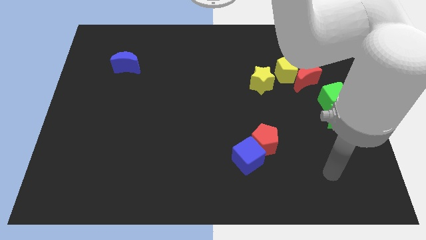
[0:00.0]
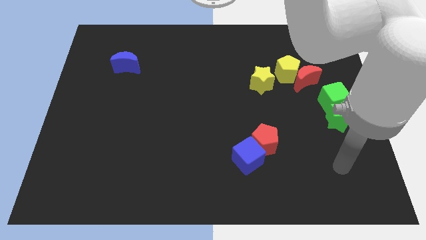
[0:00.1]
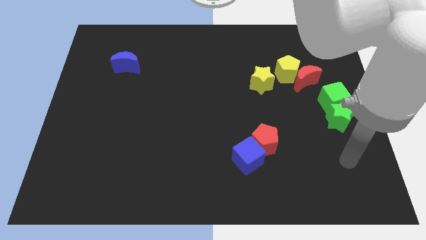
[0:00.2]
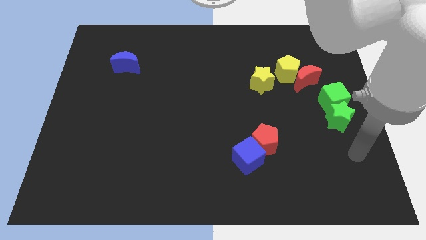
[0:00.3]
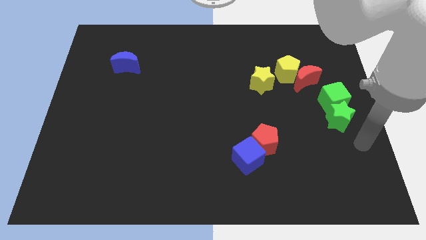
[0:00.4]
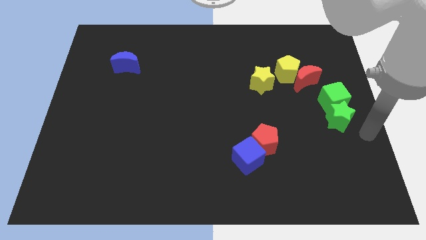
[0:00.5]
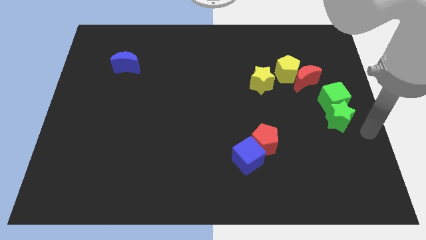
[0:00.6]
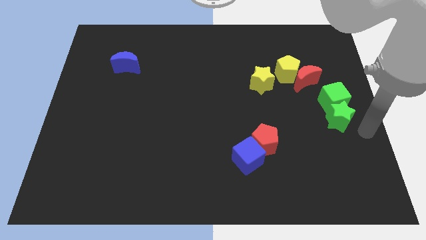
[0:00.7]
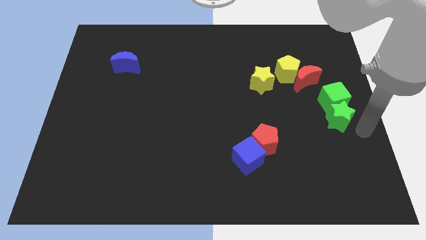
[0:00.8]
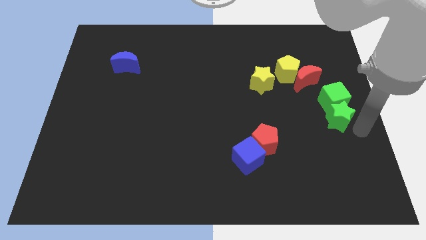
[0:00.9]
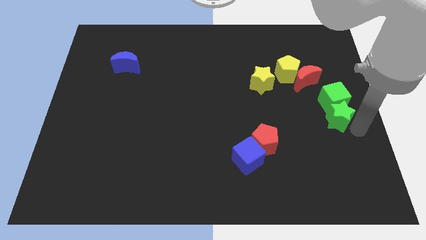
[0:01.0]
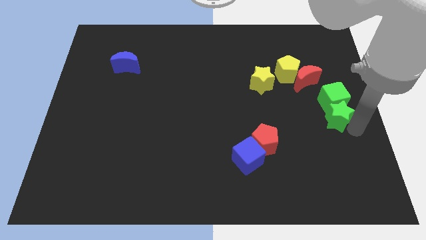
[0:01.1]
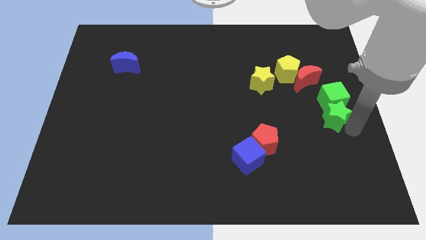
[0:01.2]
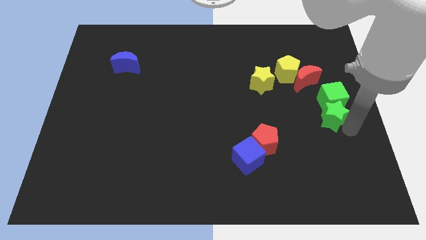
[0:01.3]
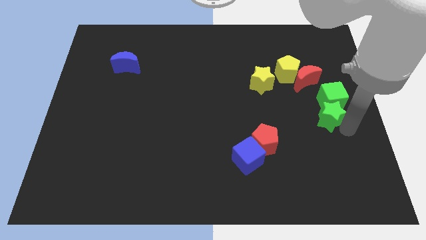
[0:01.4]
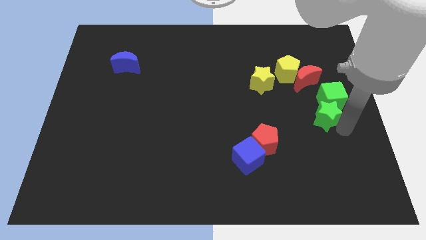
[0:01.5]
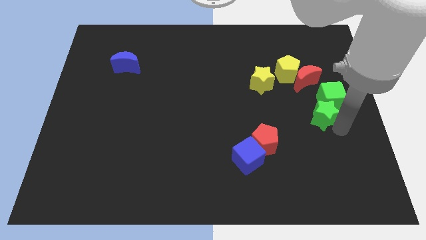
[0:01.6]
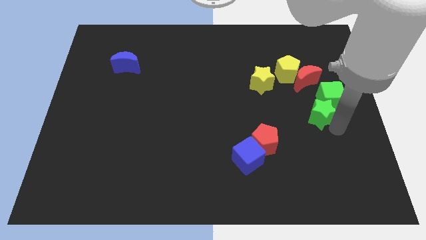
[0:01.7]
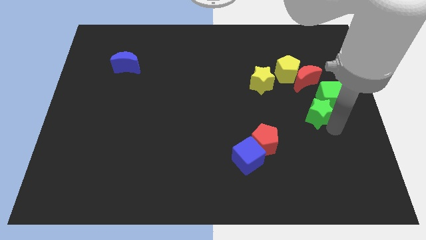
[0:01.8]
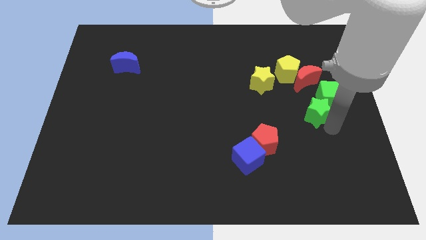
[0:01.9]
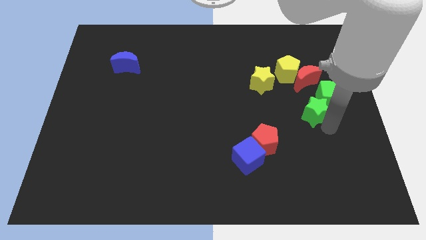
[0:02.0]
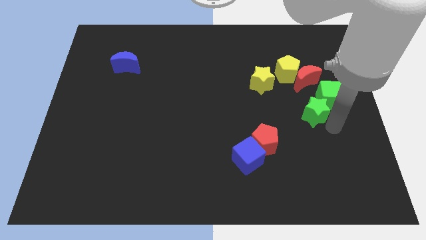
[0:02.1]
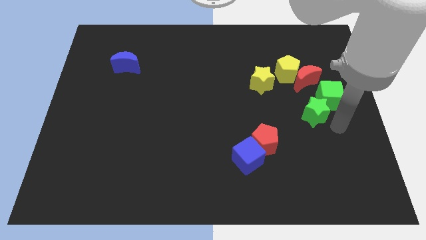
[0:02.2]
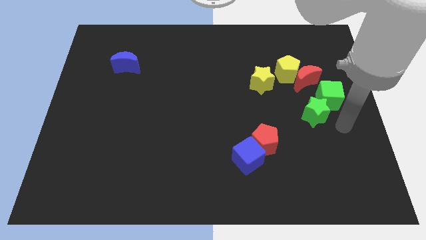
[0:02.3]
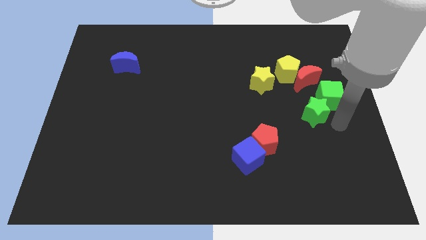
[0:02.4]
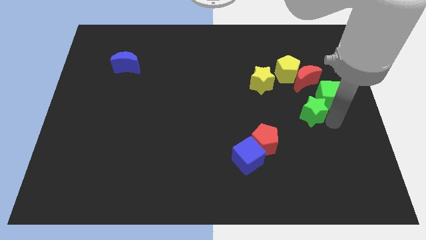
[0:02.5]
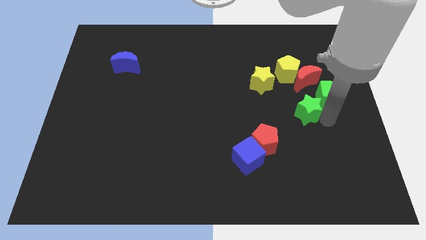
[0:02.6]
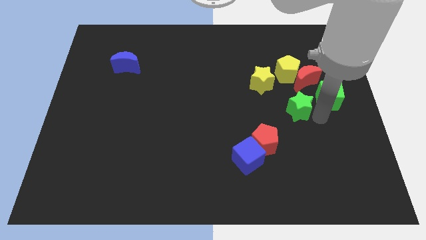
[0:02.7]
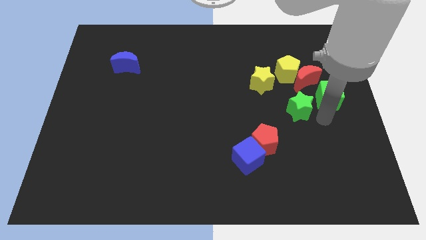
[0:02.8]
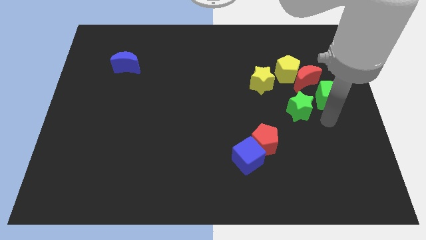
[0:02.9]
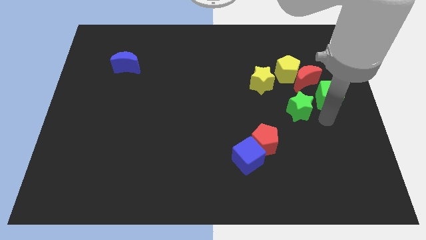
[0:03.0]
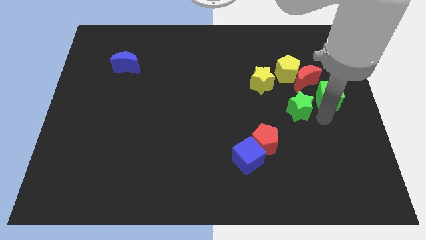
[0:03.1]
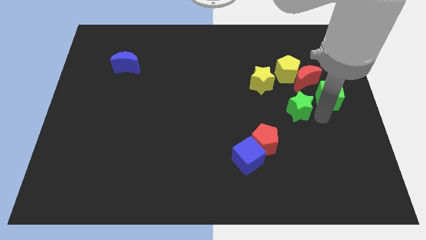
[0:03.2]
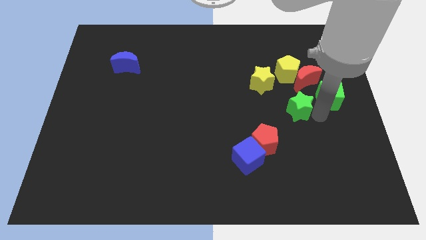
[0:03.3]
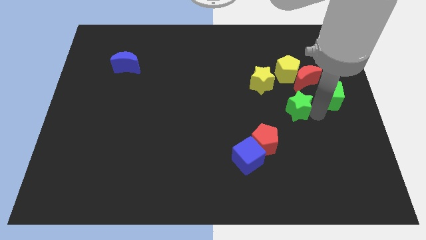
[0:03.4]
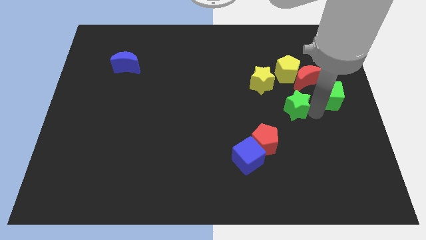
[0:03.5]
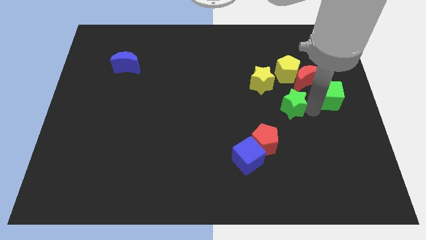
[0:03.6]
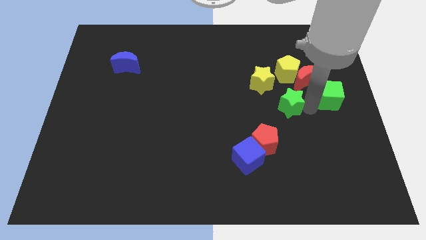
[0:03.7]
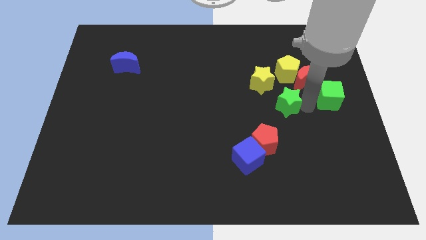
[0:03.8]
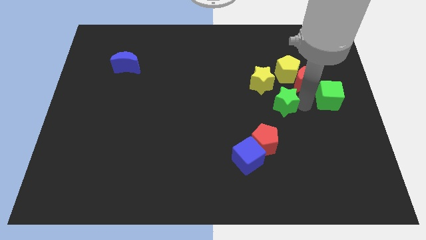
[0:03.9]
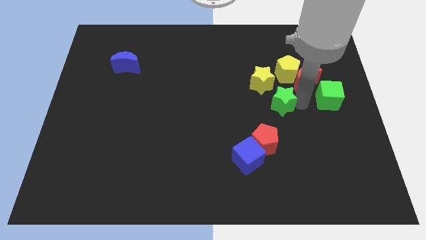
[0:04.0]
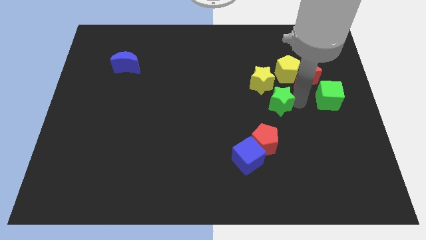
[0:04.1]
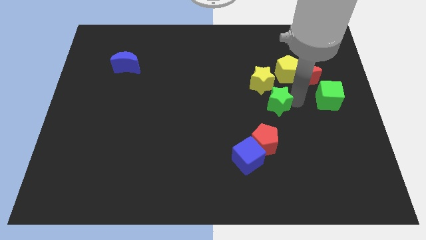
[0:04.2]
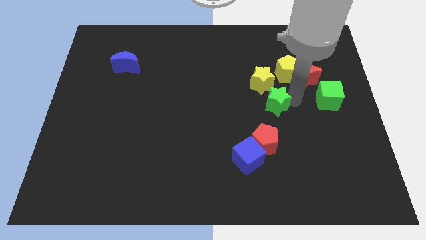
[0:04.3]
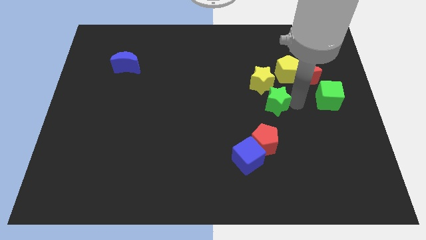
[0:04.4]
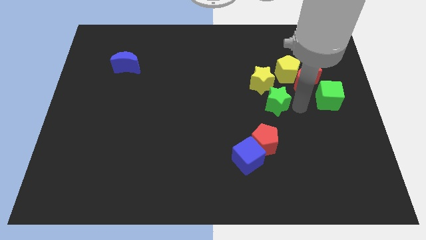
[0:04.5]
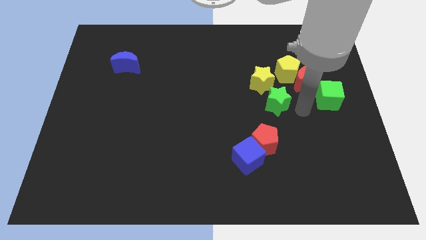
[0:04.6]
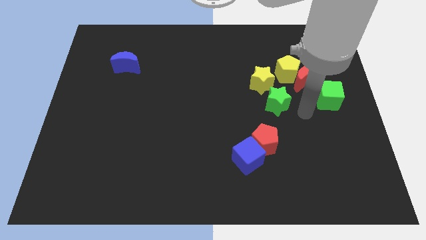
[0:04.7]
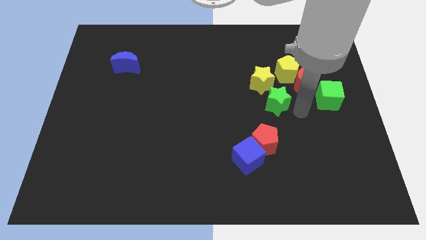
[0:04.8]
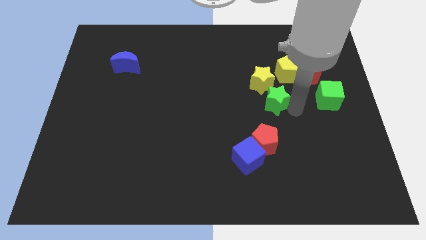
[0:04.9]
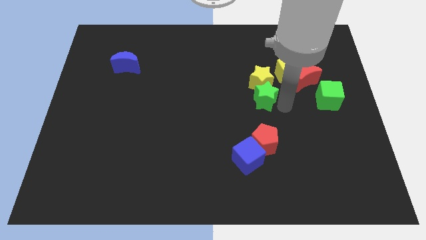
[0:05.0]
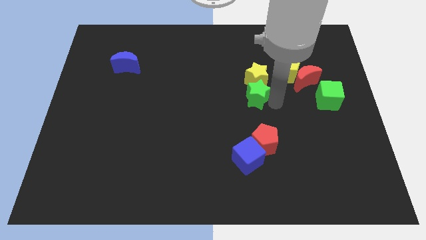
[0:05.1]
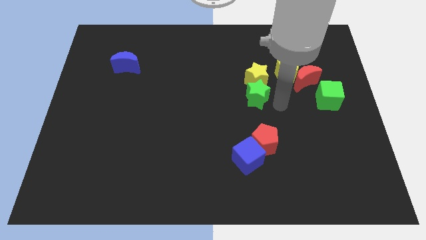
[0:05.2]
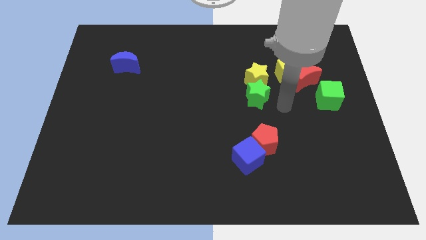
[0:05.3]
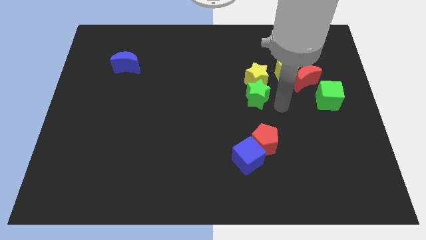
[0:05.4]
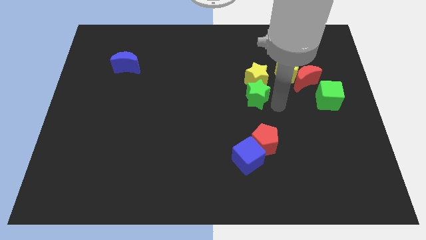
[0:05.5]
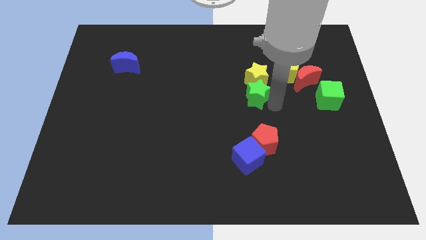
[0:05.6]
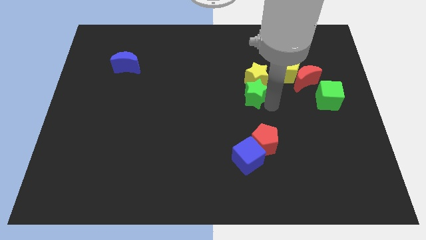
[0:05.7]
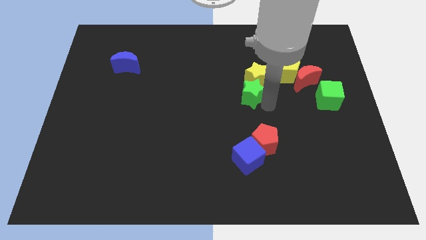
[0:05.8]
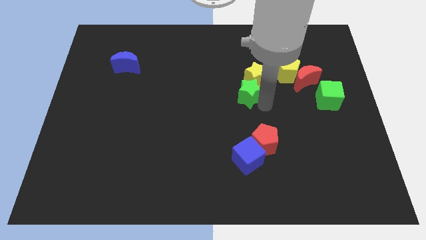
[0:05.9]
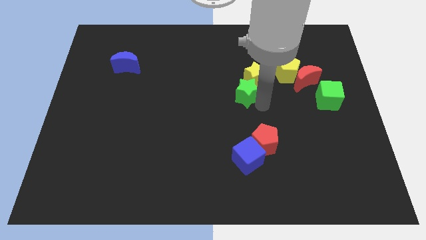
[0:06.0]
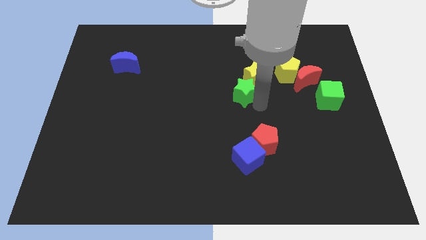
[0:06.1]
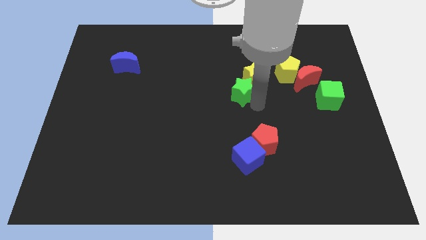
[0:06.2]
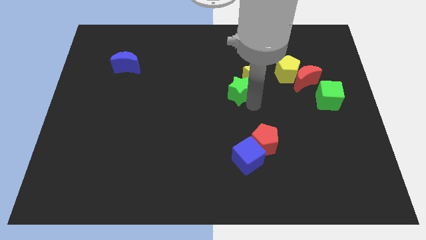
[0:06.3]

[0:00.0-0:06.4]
slide the green star left of the yellow star

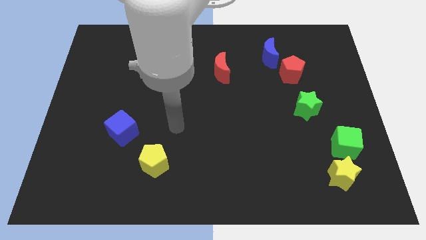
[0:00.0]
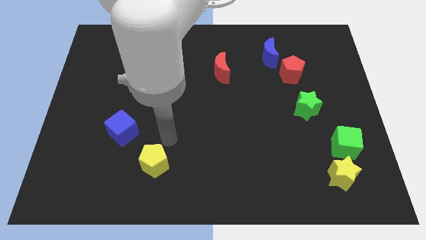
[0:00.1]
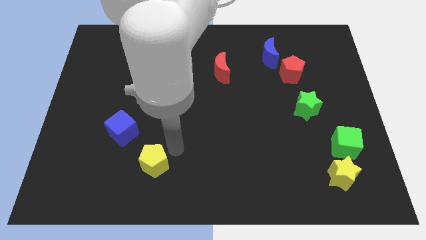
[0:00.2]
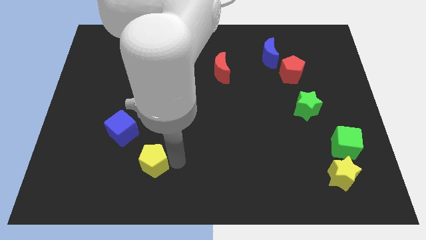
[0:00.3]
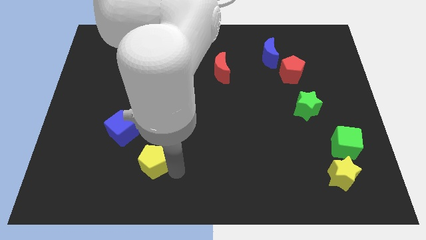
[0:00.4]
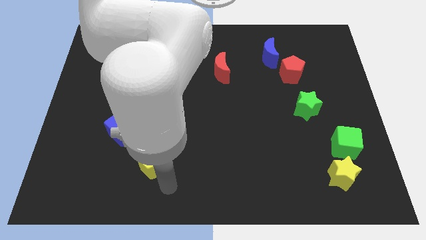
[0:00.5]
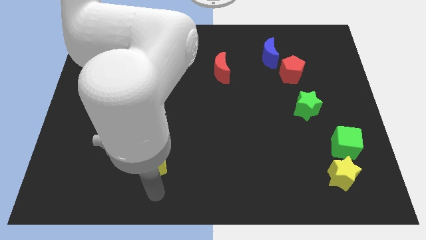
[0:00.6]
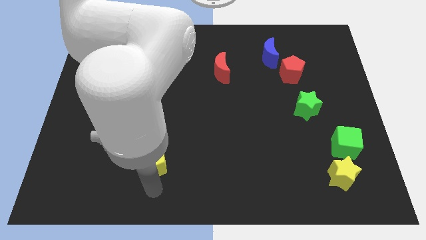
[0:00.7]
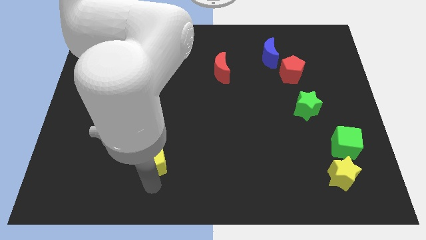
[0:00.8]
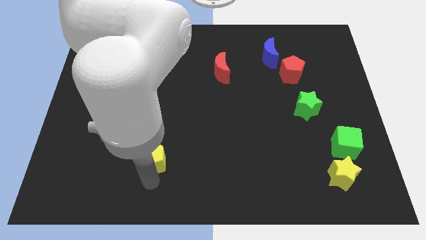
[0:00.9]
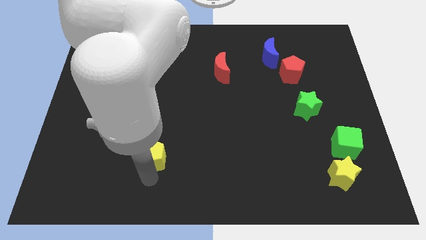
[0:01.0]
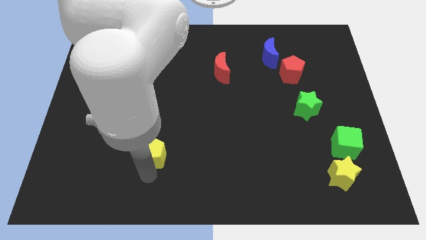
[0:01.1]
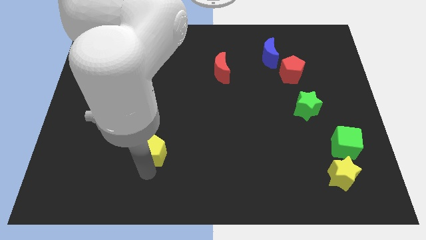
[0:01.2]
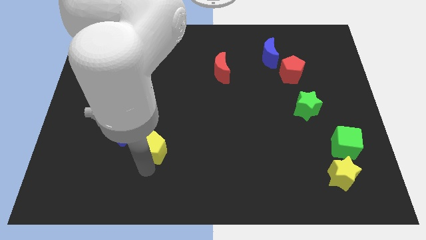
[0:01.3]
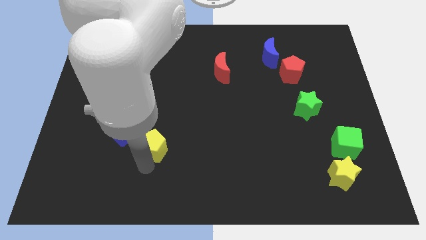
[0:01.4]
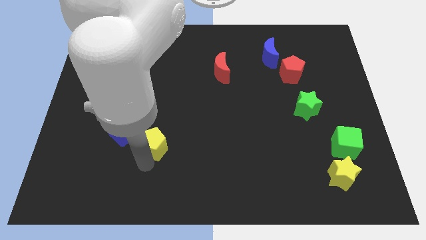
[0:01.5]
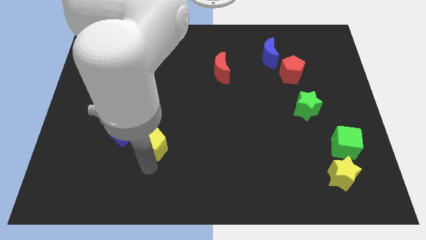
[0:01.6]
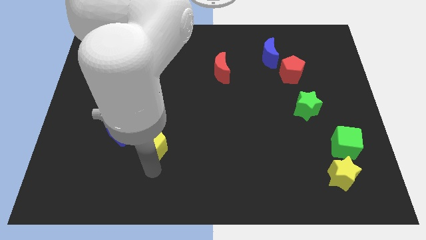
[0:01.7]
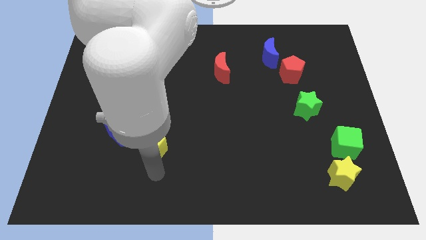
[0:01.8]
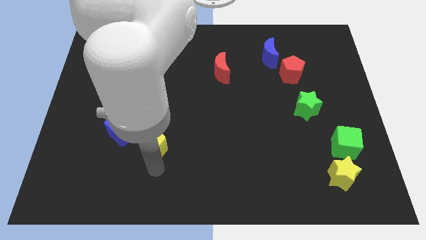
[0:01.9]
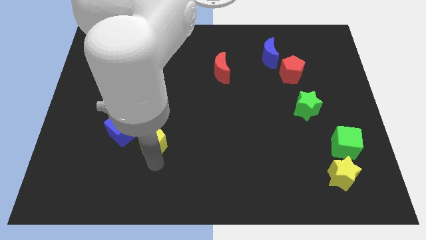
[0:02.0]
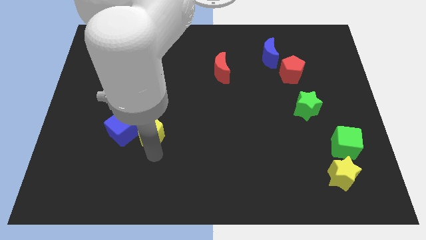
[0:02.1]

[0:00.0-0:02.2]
put the yellow pentagon to the top right side of the blue cube
